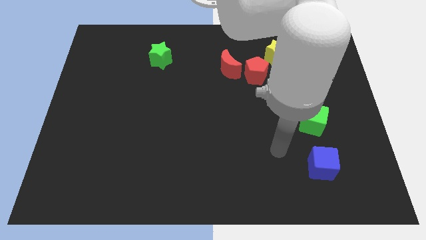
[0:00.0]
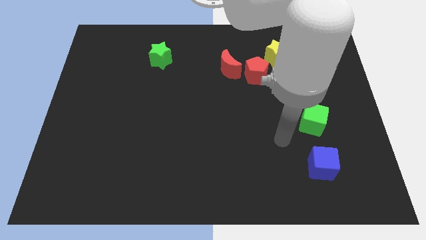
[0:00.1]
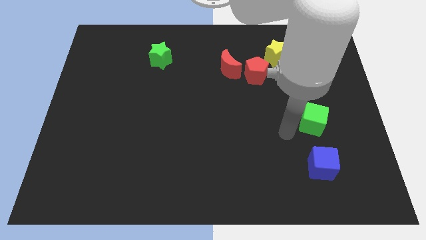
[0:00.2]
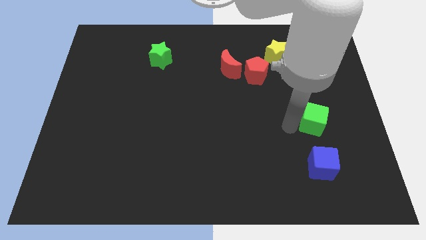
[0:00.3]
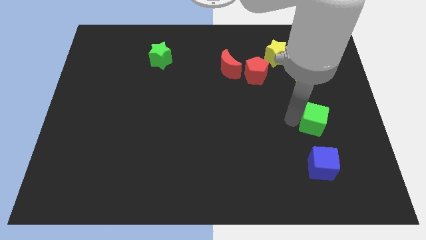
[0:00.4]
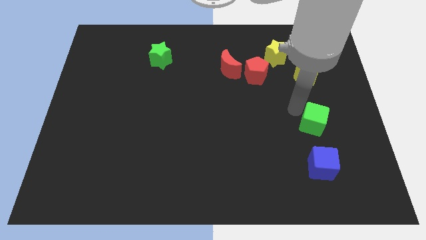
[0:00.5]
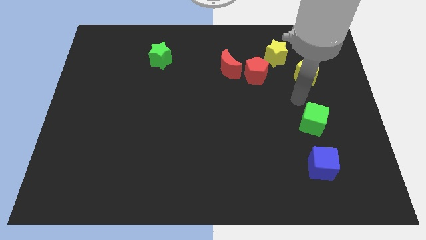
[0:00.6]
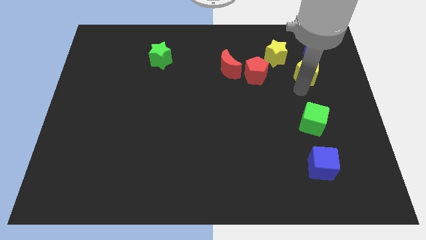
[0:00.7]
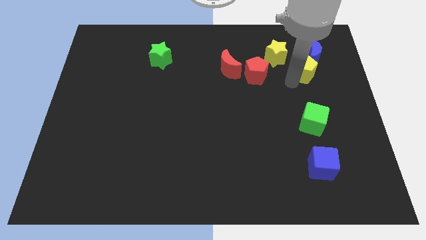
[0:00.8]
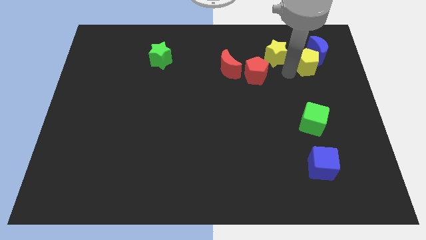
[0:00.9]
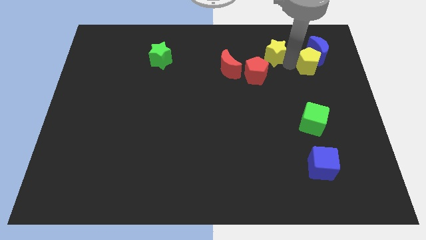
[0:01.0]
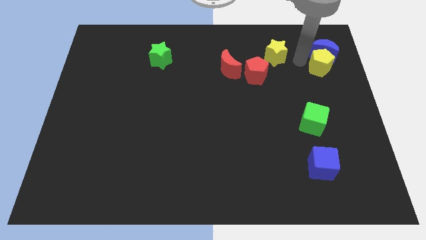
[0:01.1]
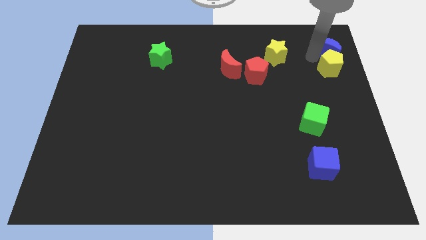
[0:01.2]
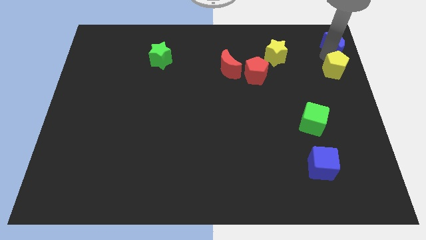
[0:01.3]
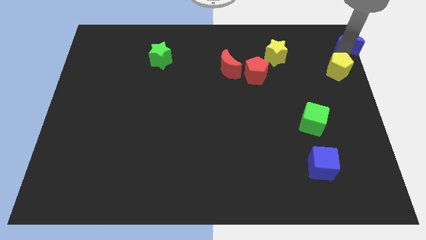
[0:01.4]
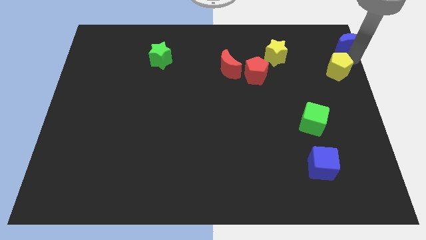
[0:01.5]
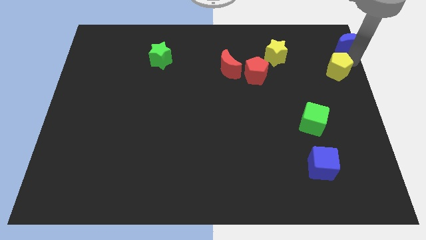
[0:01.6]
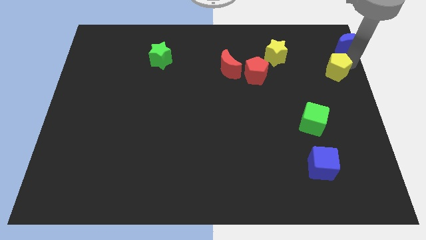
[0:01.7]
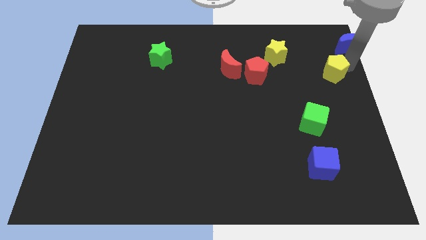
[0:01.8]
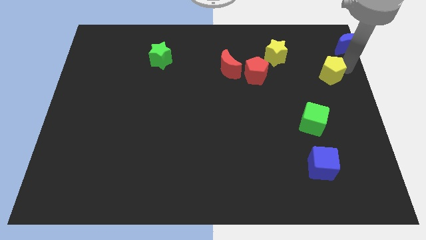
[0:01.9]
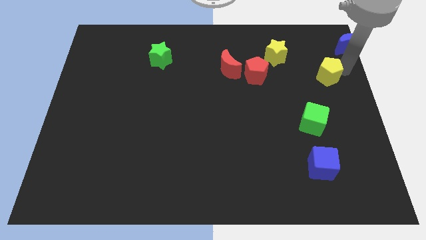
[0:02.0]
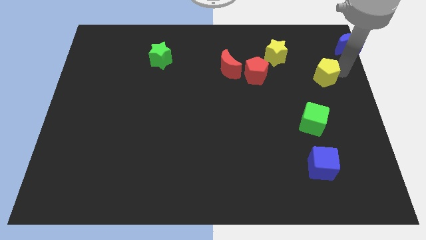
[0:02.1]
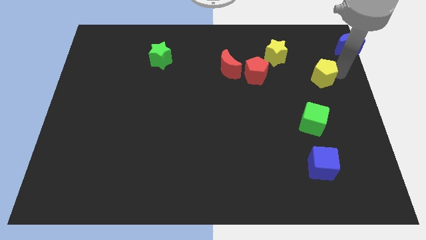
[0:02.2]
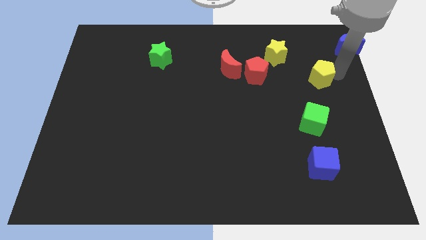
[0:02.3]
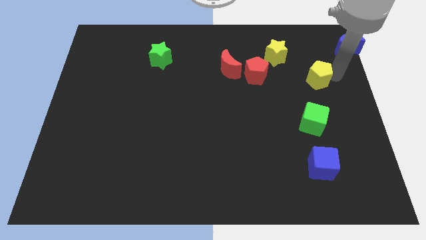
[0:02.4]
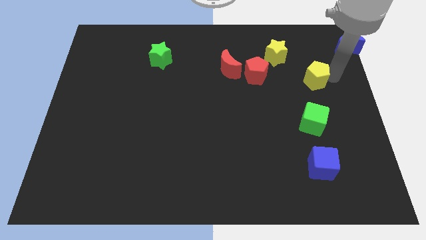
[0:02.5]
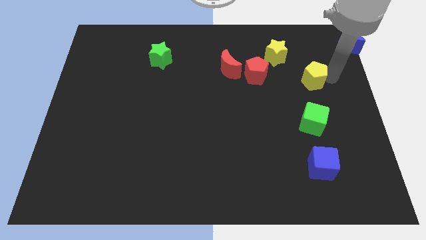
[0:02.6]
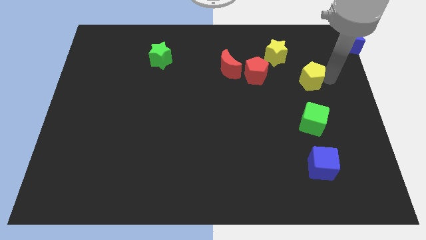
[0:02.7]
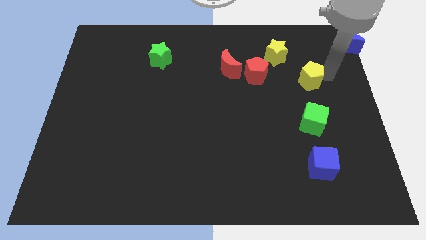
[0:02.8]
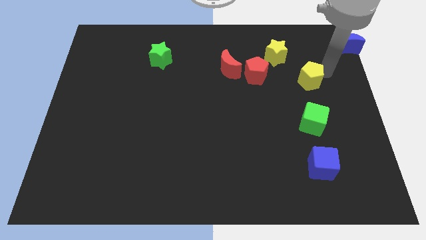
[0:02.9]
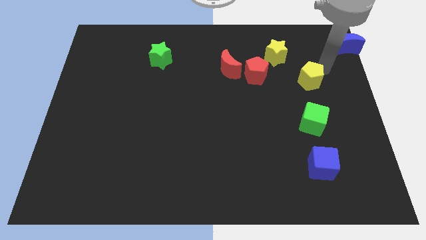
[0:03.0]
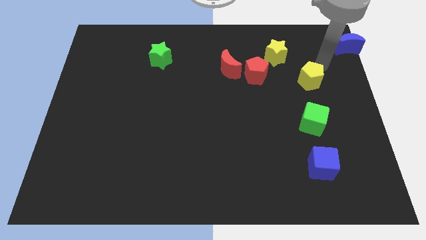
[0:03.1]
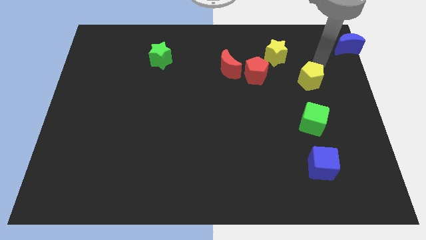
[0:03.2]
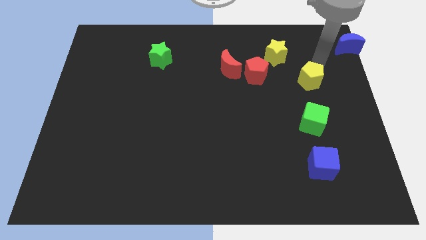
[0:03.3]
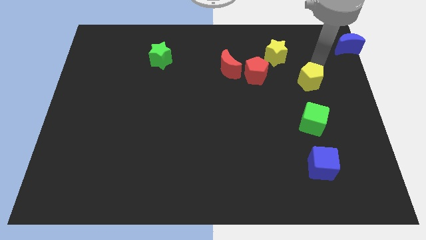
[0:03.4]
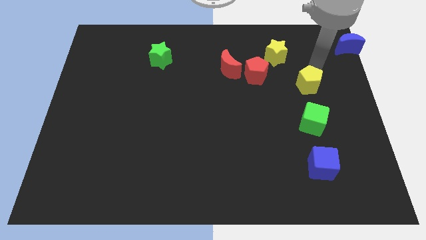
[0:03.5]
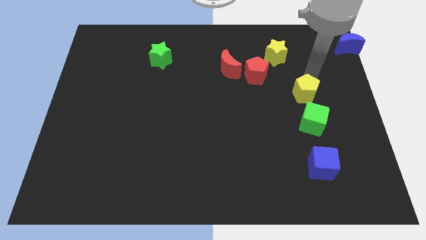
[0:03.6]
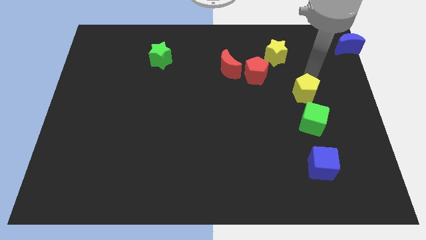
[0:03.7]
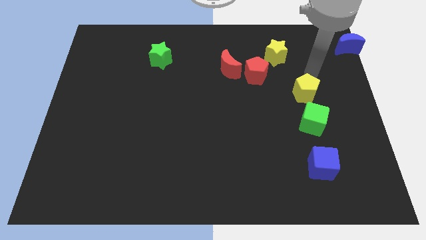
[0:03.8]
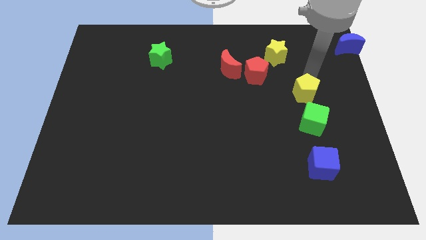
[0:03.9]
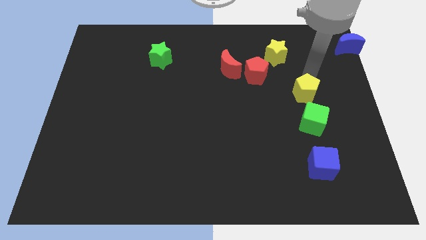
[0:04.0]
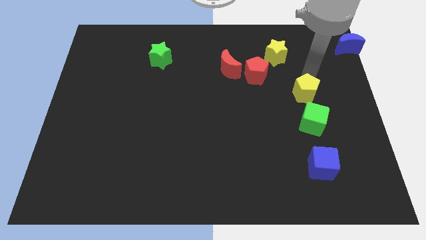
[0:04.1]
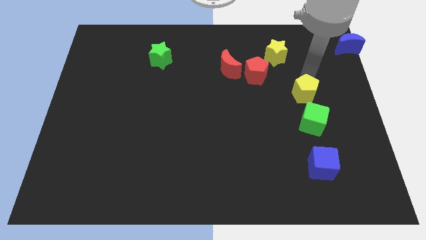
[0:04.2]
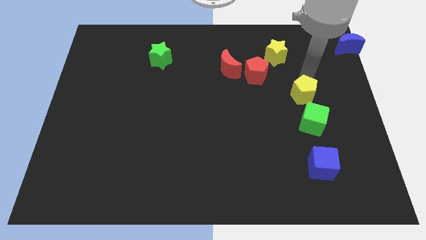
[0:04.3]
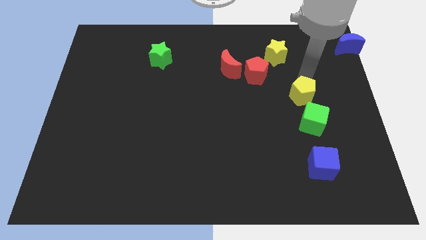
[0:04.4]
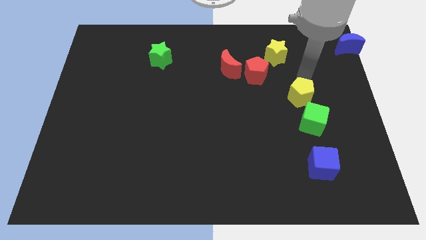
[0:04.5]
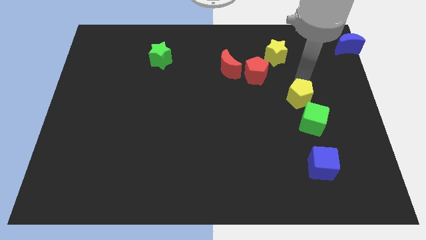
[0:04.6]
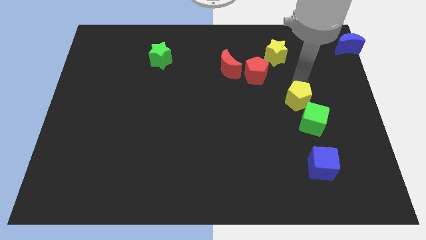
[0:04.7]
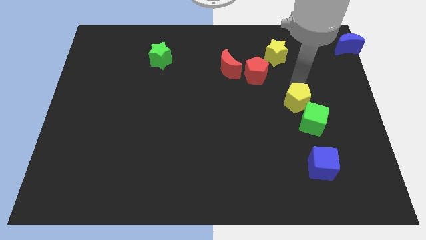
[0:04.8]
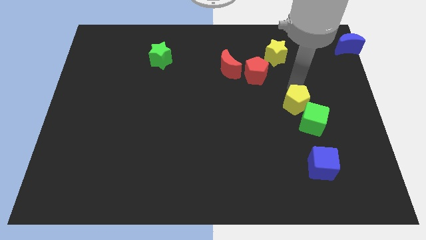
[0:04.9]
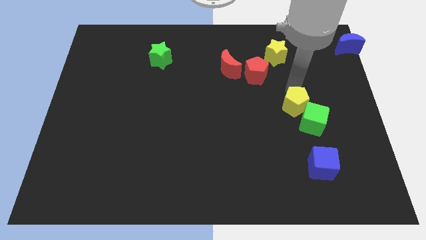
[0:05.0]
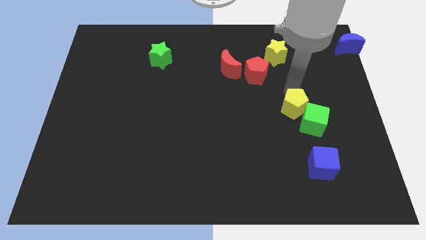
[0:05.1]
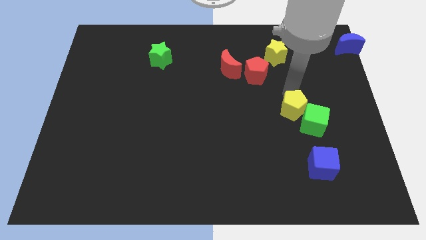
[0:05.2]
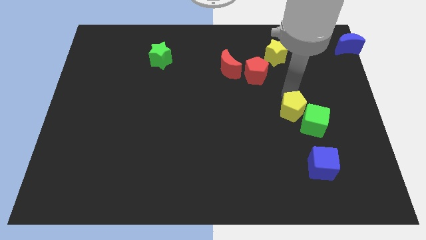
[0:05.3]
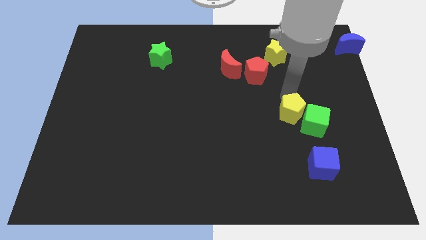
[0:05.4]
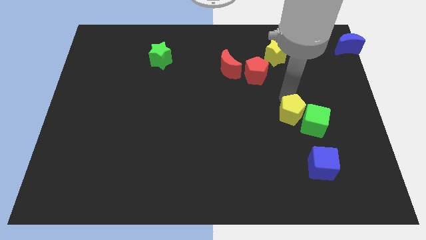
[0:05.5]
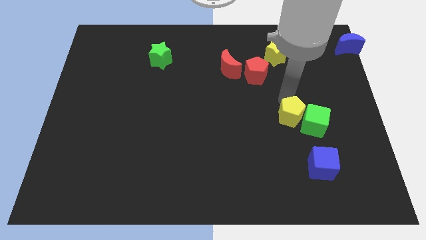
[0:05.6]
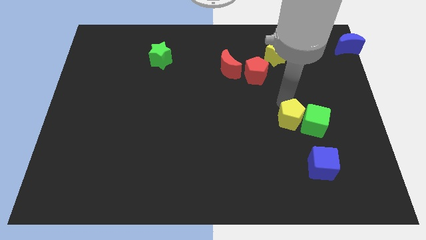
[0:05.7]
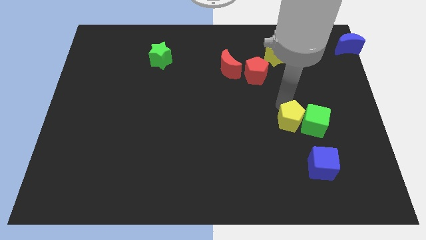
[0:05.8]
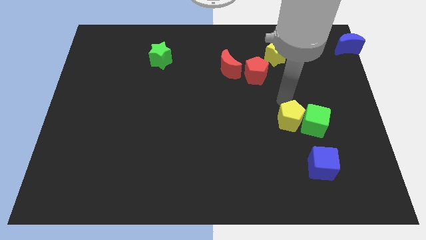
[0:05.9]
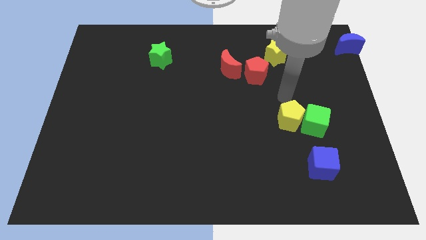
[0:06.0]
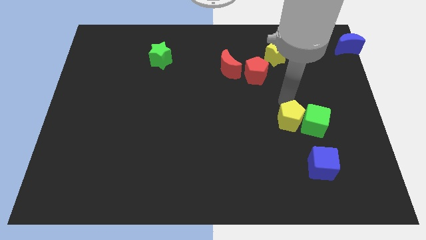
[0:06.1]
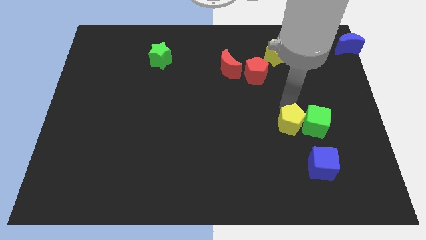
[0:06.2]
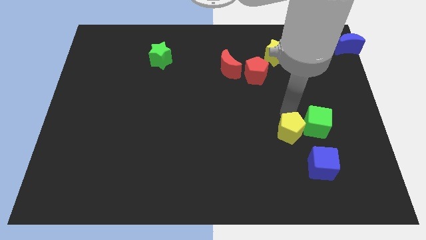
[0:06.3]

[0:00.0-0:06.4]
slide the yellow pentagon to the top left side of the blue cube
